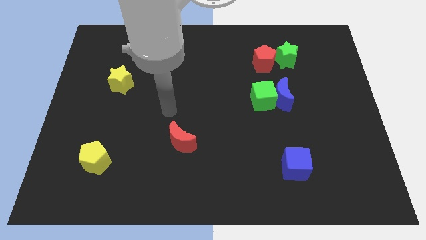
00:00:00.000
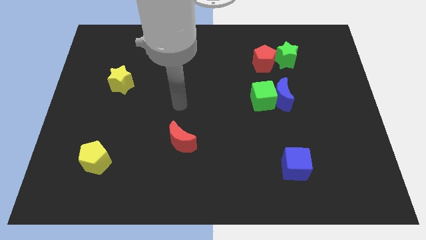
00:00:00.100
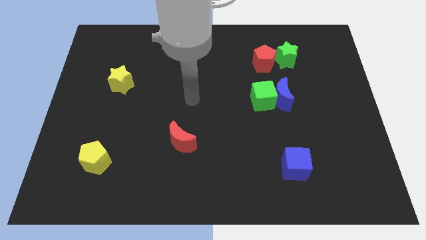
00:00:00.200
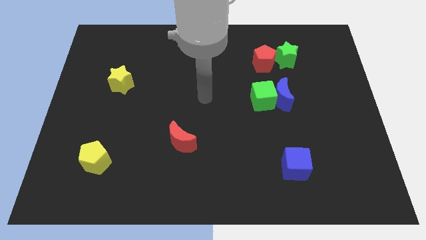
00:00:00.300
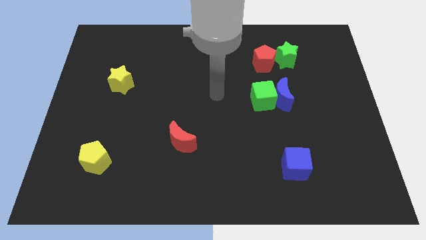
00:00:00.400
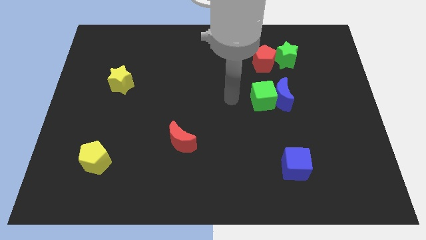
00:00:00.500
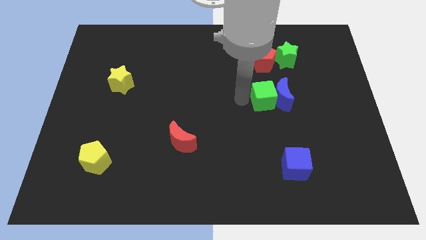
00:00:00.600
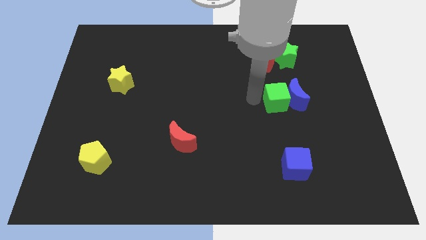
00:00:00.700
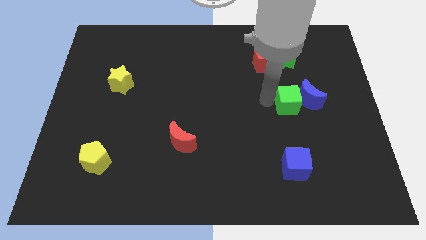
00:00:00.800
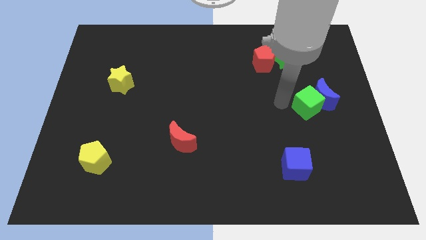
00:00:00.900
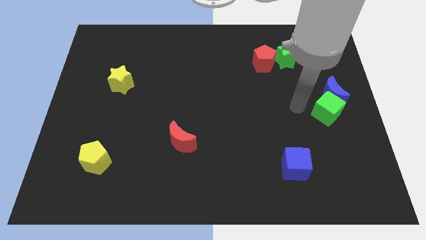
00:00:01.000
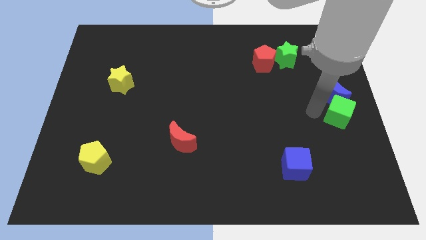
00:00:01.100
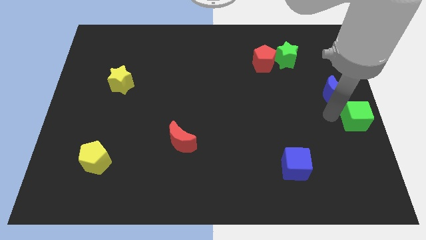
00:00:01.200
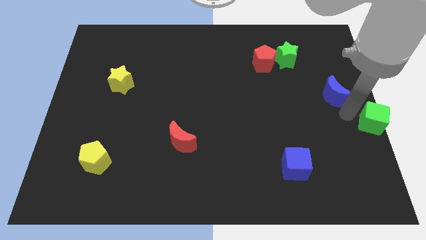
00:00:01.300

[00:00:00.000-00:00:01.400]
pull the blue moon apart from the green cube

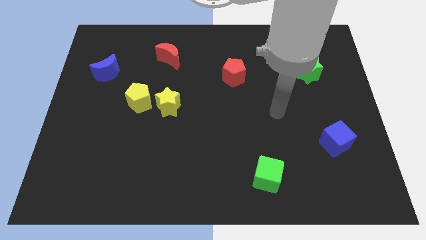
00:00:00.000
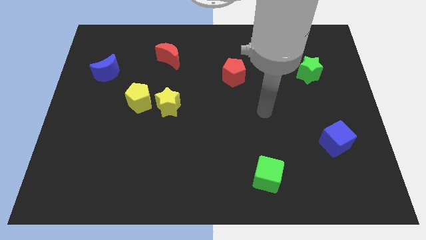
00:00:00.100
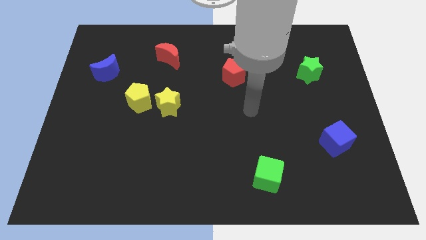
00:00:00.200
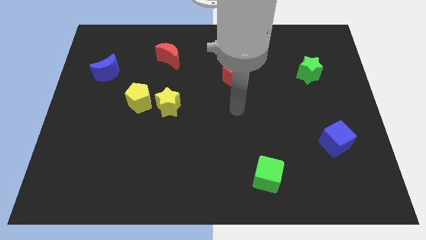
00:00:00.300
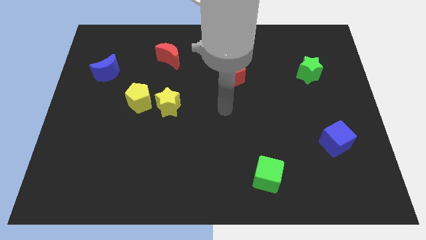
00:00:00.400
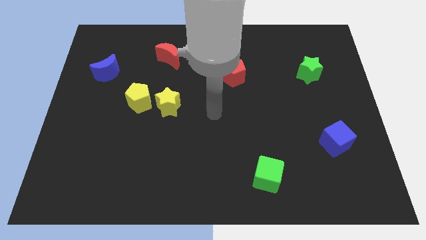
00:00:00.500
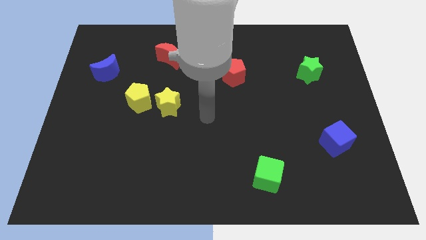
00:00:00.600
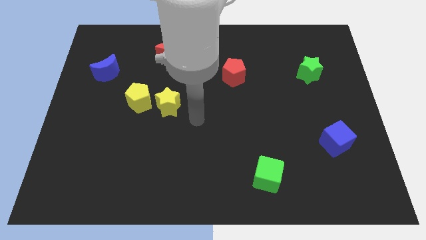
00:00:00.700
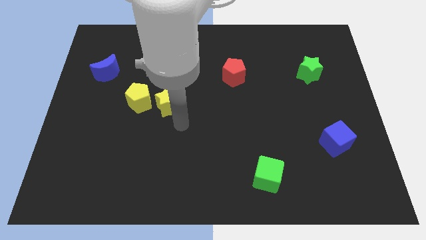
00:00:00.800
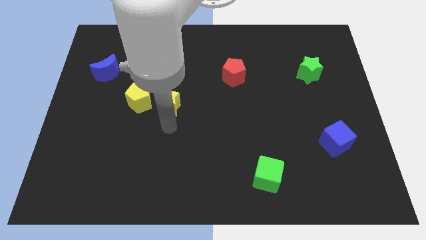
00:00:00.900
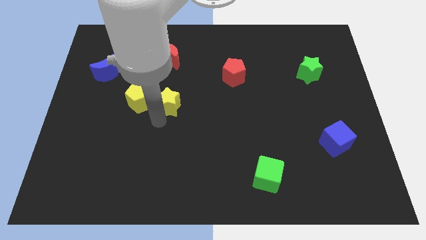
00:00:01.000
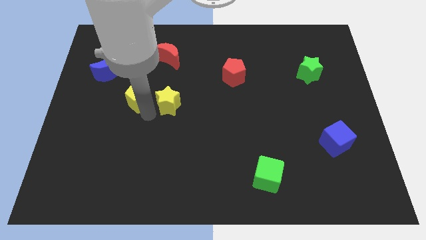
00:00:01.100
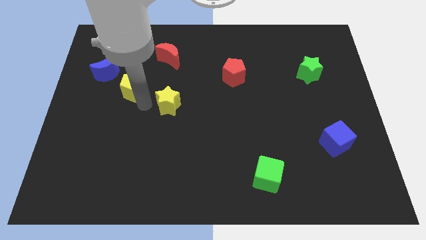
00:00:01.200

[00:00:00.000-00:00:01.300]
pull the yellow star apart from the yellow pentagon

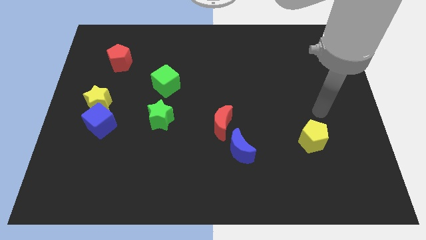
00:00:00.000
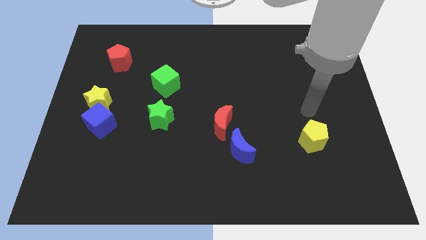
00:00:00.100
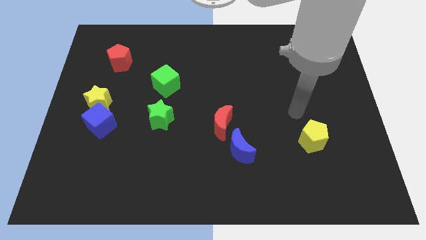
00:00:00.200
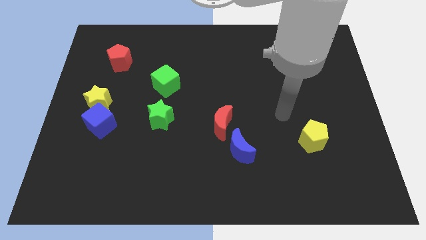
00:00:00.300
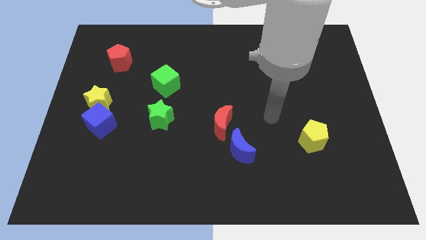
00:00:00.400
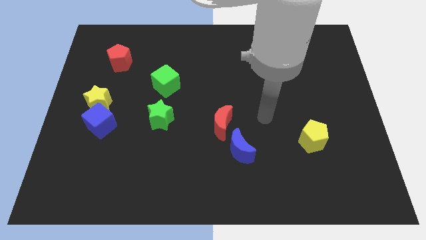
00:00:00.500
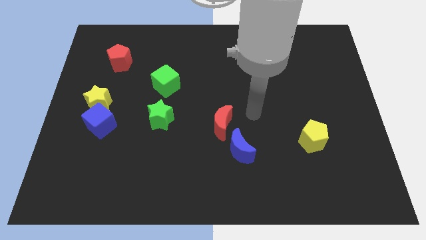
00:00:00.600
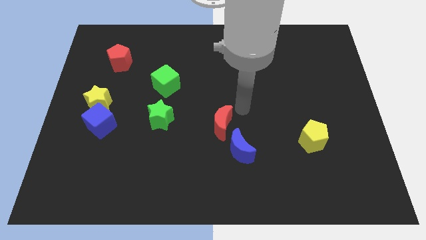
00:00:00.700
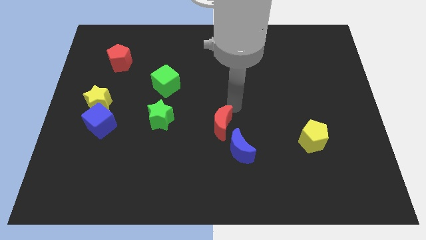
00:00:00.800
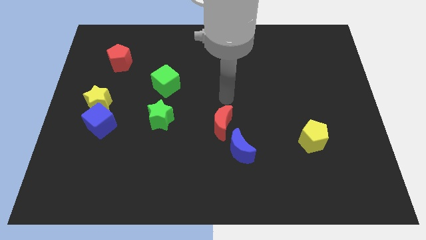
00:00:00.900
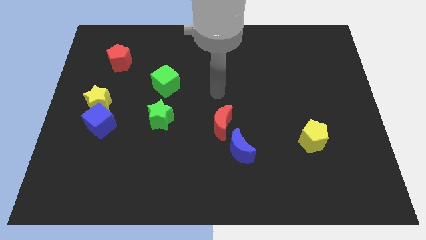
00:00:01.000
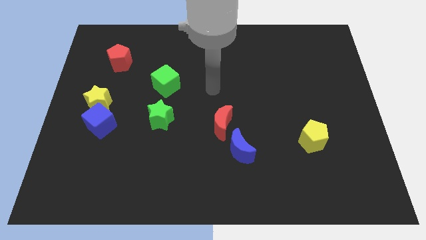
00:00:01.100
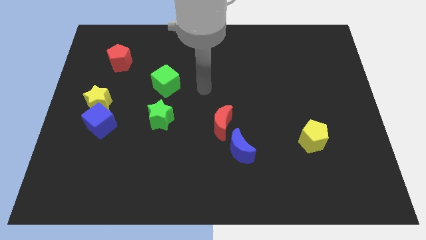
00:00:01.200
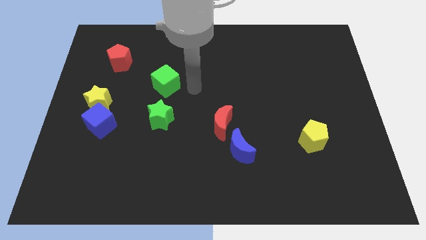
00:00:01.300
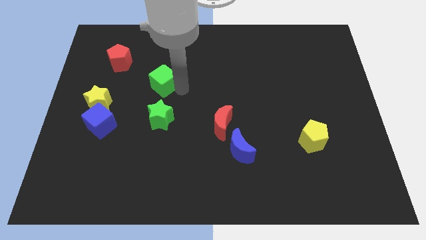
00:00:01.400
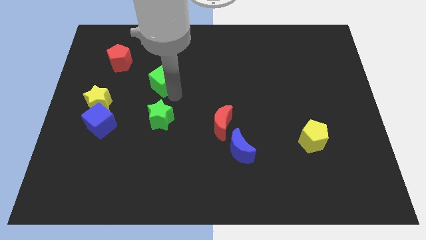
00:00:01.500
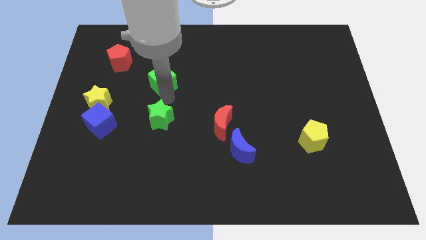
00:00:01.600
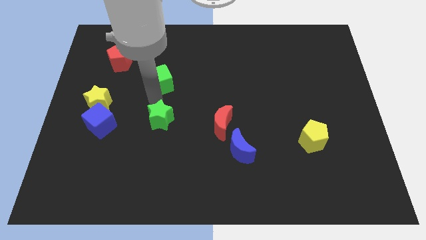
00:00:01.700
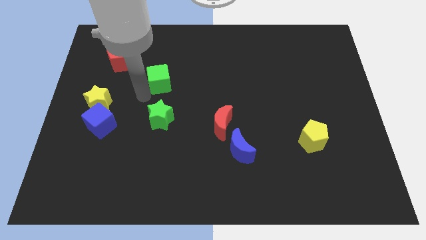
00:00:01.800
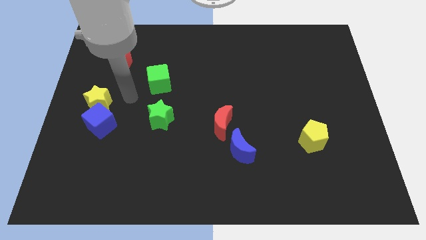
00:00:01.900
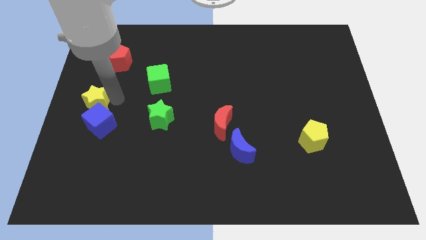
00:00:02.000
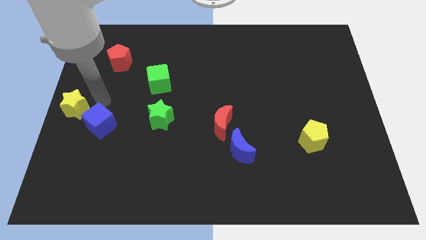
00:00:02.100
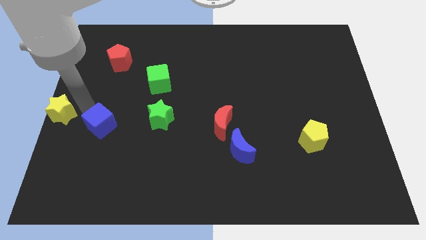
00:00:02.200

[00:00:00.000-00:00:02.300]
separate the blue cube from the yellow star

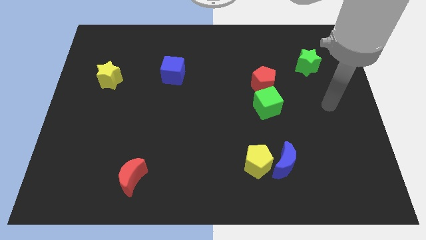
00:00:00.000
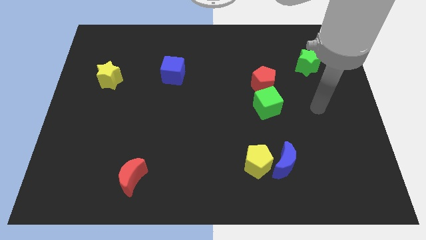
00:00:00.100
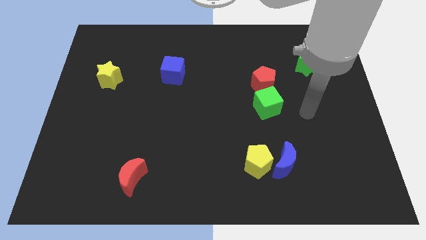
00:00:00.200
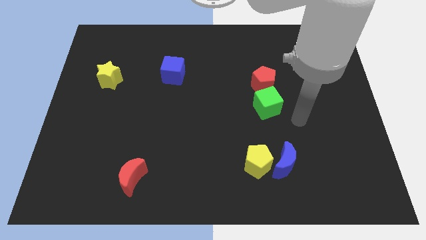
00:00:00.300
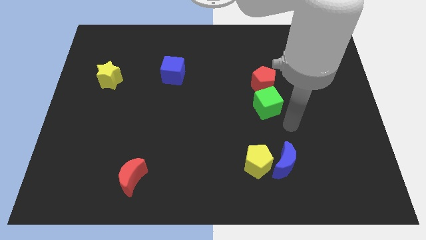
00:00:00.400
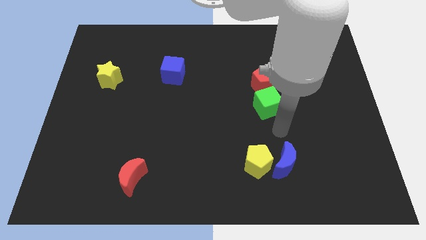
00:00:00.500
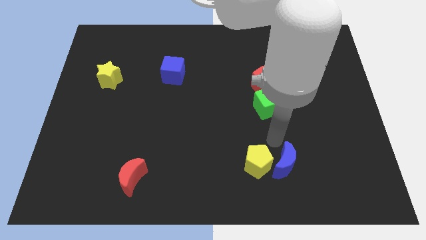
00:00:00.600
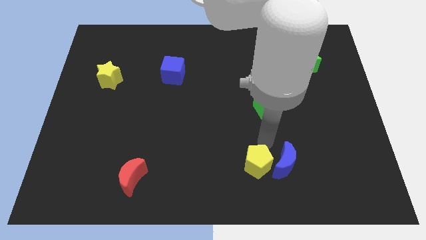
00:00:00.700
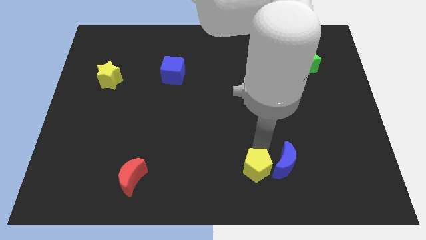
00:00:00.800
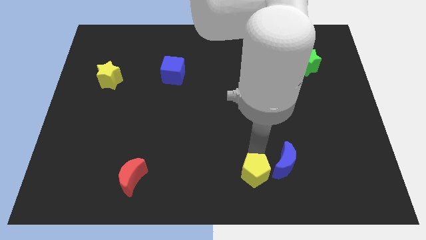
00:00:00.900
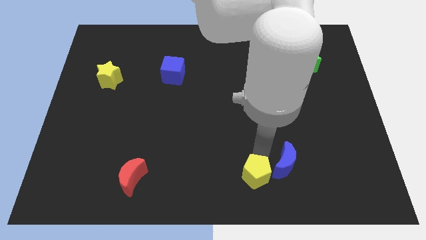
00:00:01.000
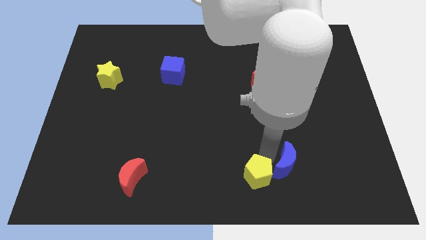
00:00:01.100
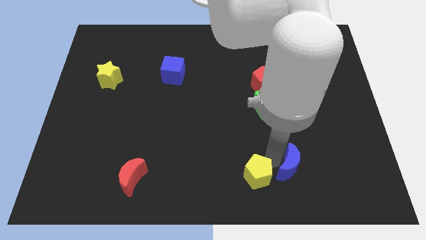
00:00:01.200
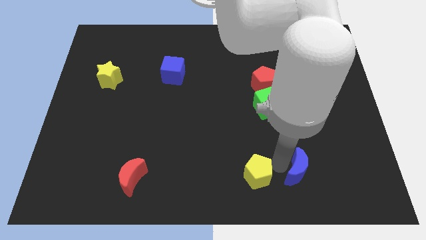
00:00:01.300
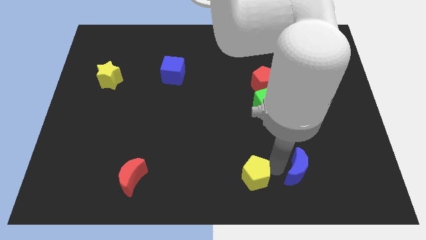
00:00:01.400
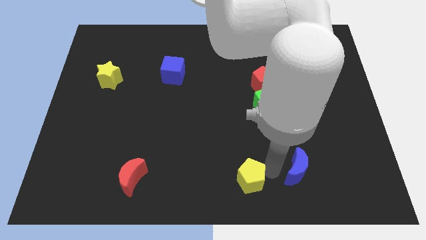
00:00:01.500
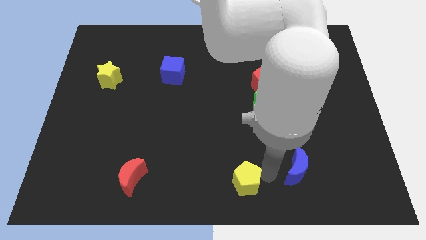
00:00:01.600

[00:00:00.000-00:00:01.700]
separate the blue moon from the yellow pentagon

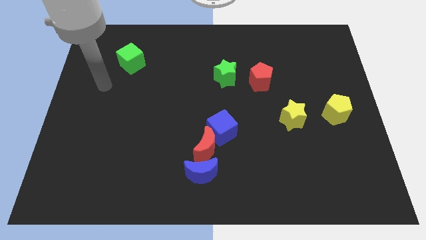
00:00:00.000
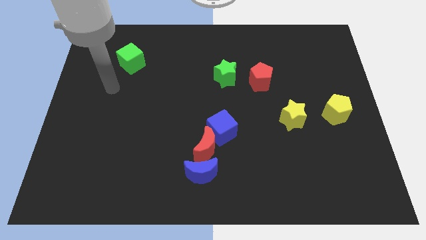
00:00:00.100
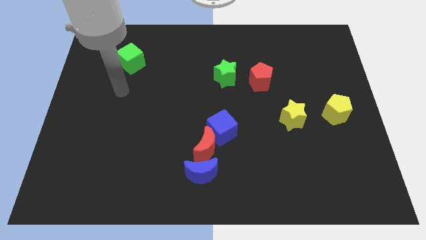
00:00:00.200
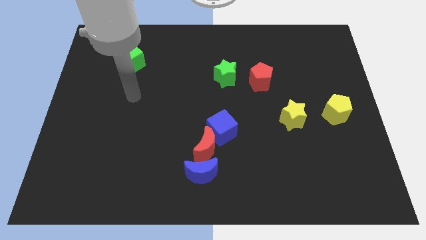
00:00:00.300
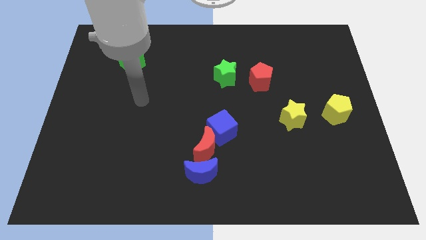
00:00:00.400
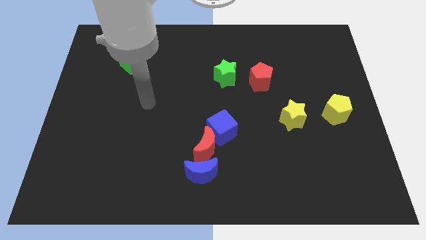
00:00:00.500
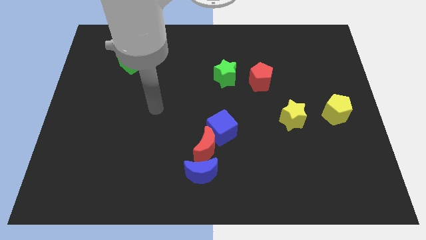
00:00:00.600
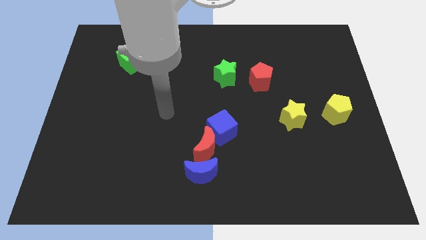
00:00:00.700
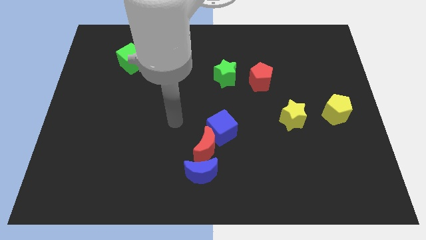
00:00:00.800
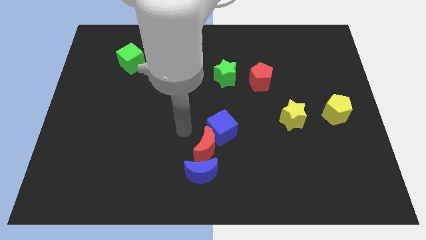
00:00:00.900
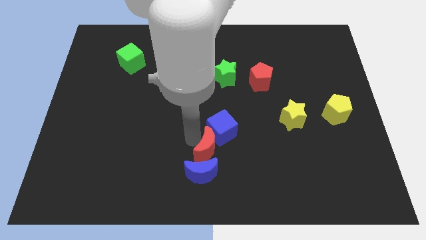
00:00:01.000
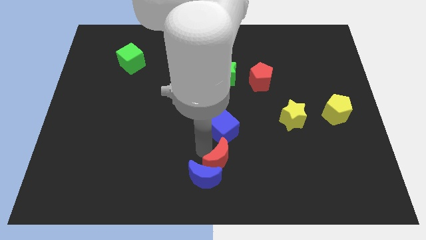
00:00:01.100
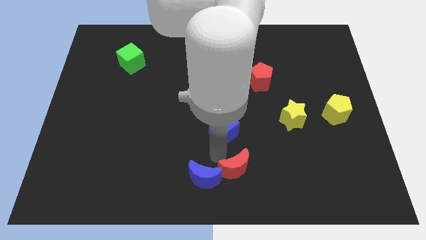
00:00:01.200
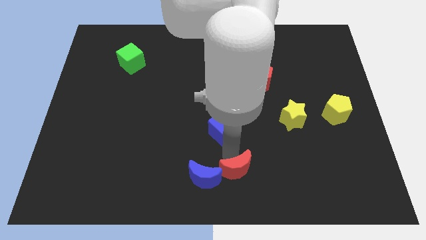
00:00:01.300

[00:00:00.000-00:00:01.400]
pull the blue cube apart from the red moon

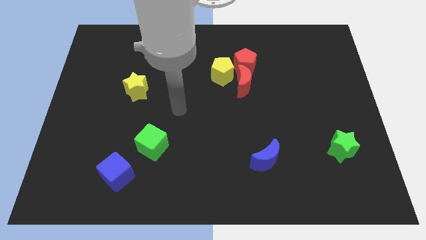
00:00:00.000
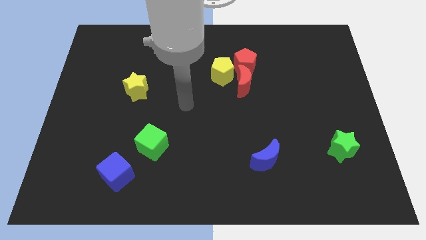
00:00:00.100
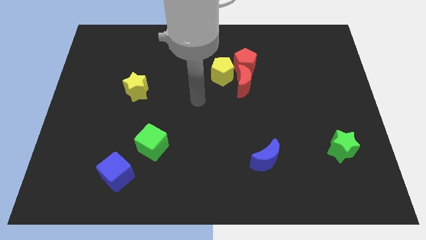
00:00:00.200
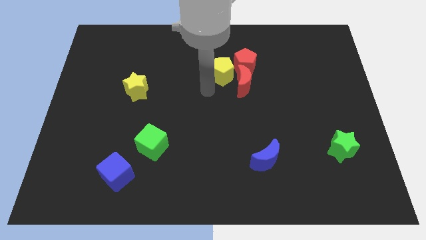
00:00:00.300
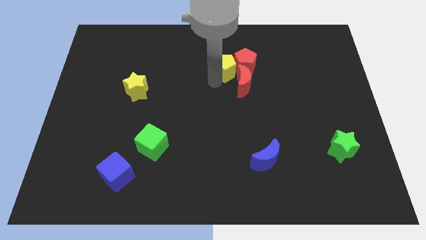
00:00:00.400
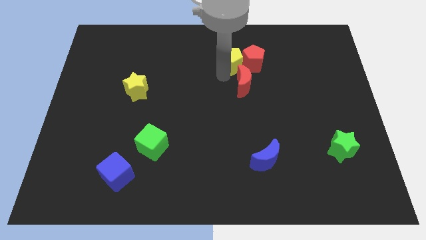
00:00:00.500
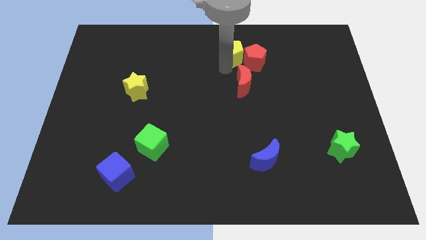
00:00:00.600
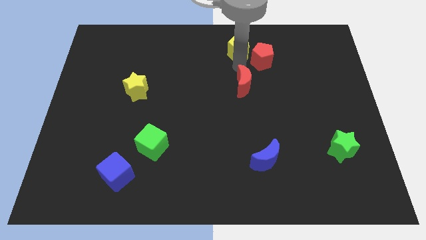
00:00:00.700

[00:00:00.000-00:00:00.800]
pull the red moon apart from the yellow pentagon and red pentagon

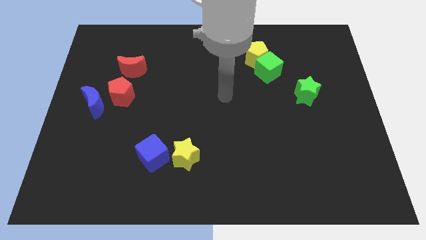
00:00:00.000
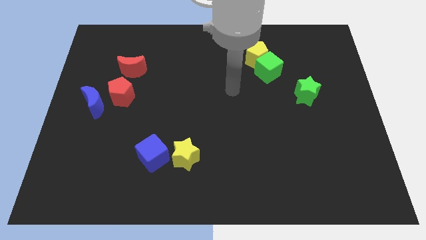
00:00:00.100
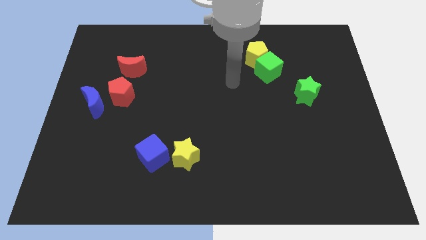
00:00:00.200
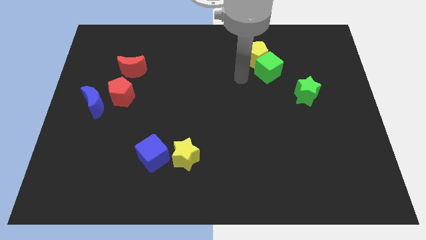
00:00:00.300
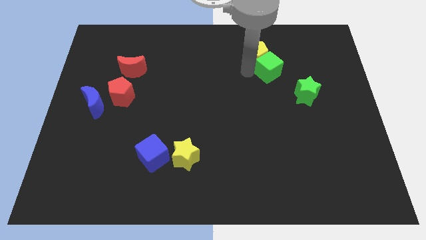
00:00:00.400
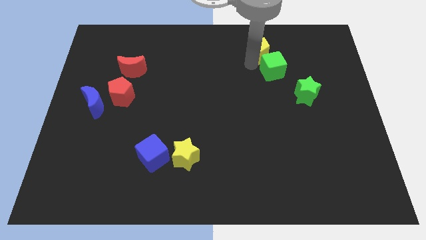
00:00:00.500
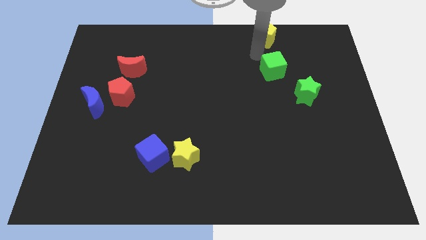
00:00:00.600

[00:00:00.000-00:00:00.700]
separate the green cube from the yellow pentagon
